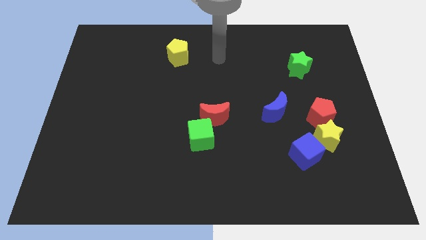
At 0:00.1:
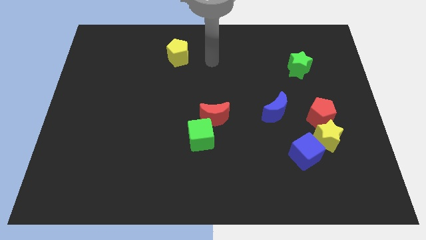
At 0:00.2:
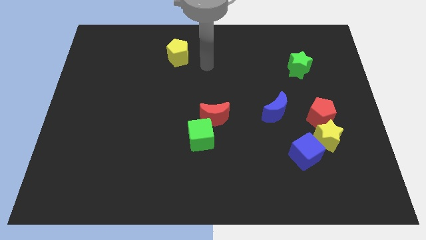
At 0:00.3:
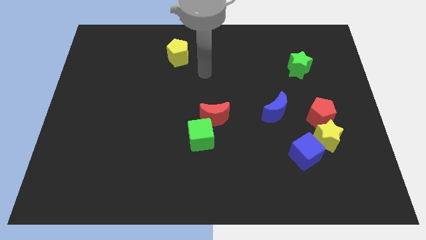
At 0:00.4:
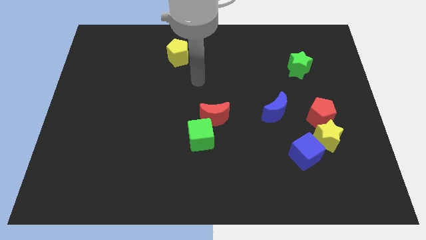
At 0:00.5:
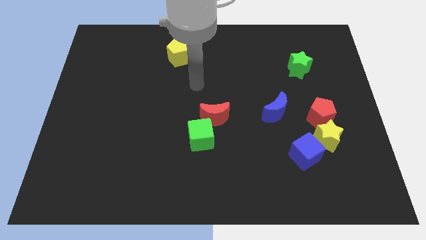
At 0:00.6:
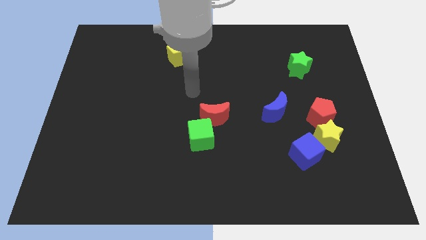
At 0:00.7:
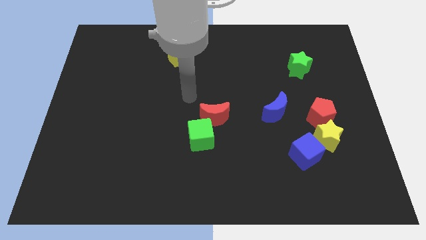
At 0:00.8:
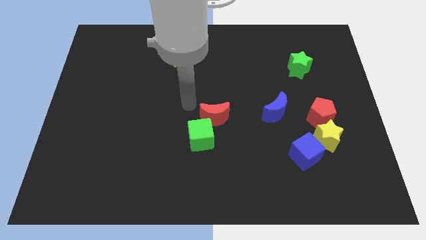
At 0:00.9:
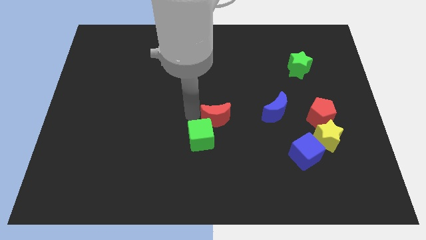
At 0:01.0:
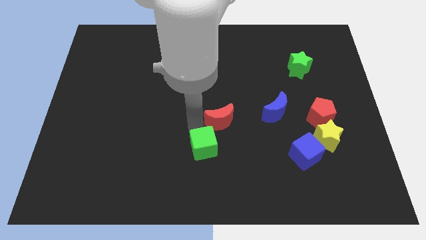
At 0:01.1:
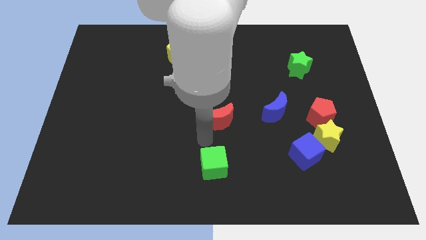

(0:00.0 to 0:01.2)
pull the red moon apart from the green cube

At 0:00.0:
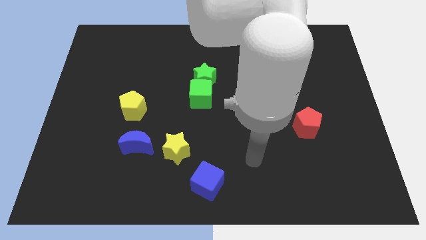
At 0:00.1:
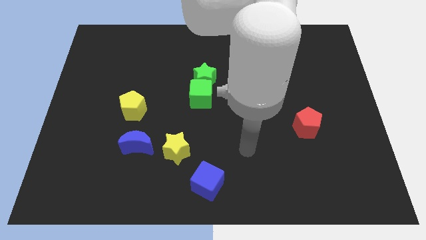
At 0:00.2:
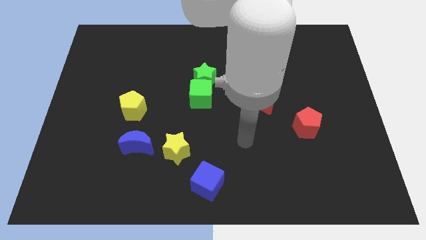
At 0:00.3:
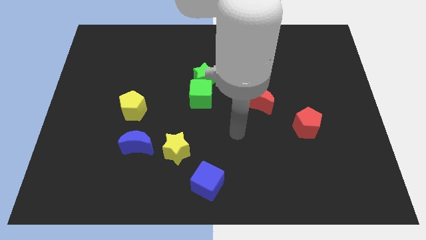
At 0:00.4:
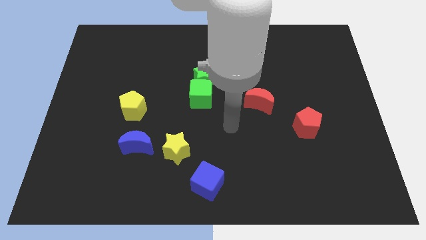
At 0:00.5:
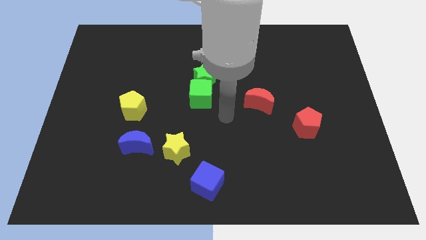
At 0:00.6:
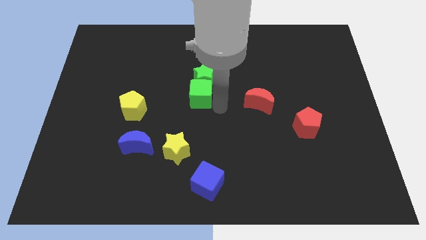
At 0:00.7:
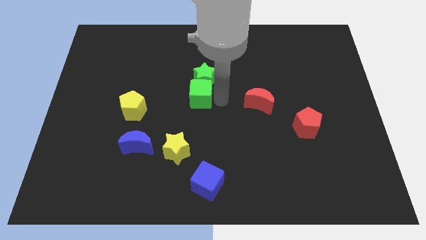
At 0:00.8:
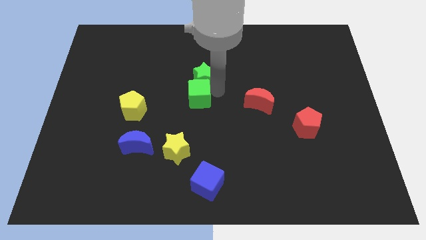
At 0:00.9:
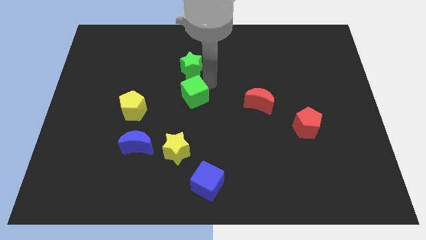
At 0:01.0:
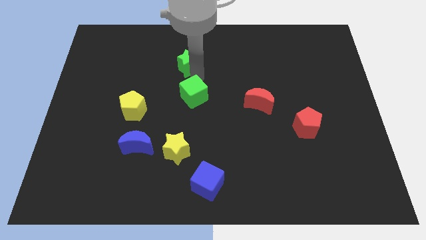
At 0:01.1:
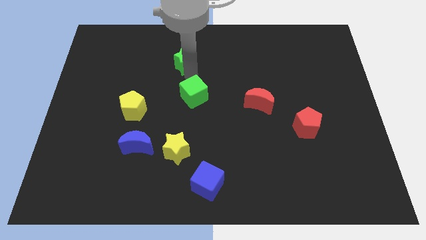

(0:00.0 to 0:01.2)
separate the green cube from the green star

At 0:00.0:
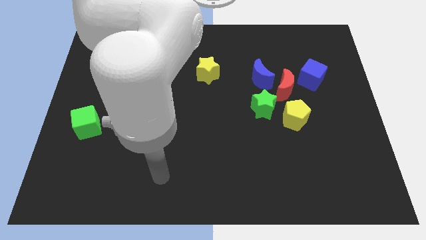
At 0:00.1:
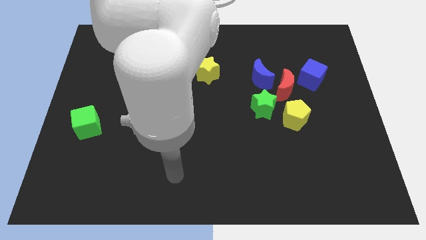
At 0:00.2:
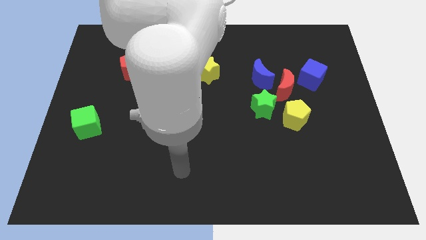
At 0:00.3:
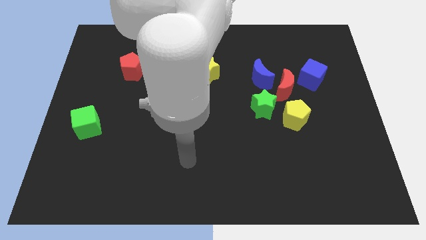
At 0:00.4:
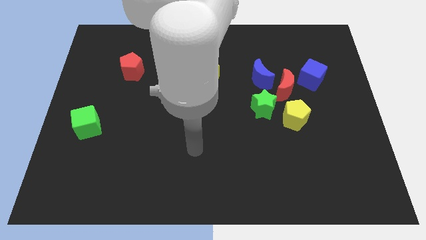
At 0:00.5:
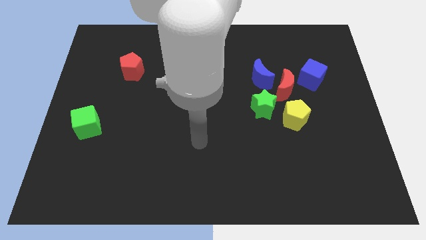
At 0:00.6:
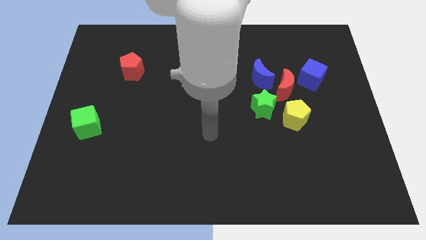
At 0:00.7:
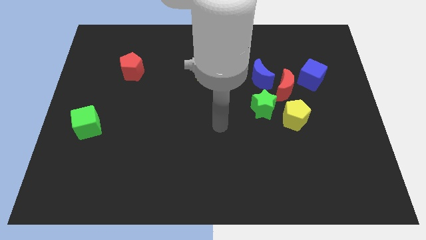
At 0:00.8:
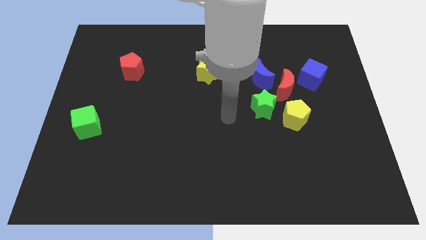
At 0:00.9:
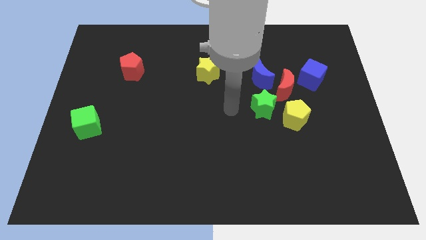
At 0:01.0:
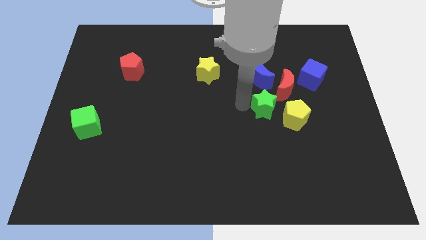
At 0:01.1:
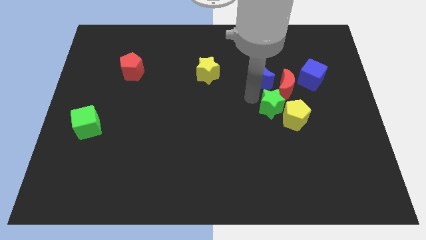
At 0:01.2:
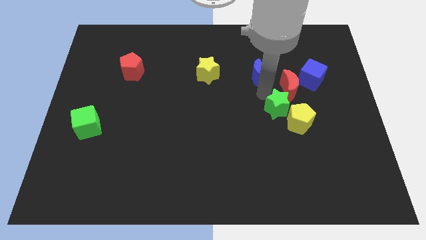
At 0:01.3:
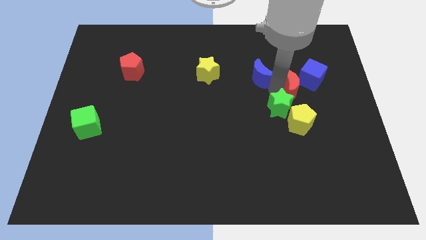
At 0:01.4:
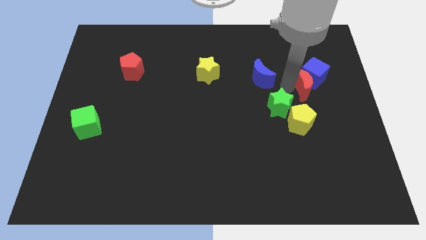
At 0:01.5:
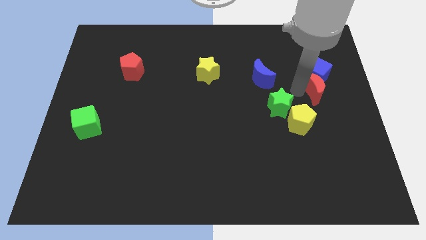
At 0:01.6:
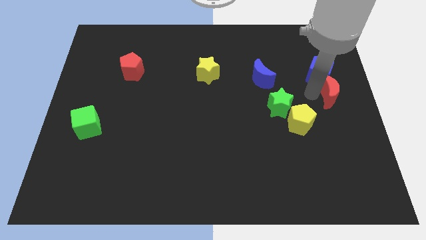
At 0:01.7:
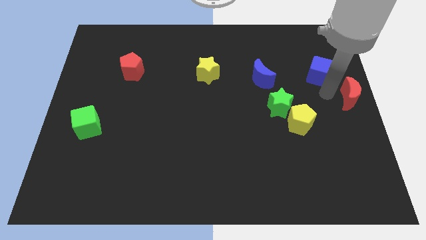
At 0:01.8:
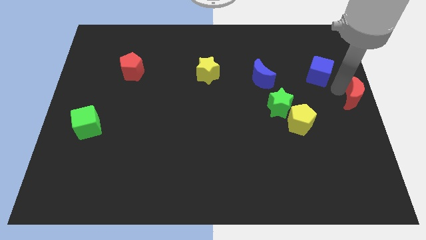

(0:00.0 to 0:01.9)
separate the blue cube from the red moon

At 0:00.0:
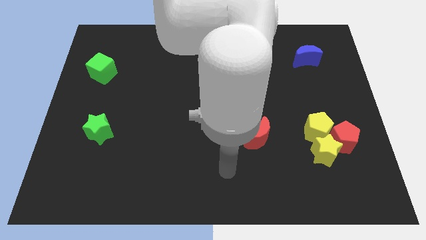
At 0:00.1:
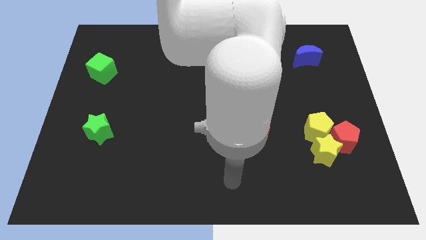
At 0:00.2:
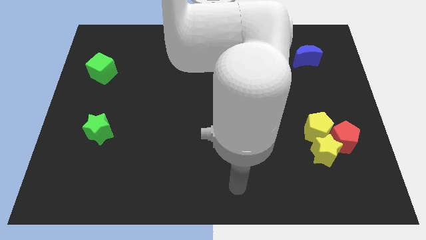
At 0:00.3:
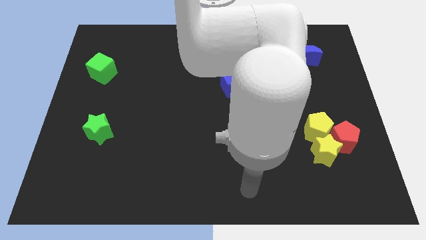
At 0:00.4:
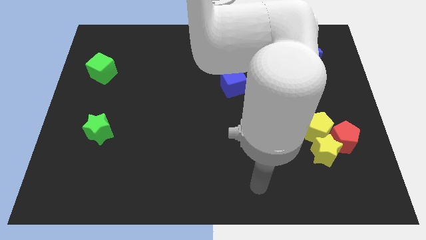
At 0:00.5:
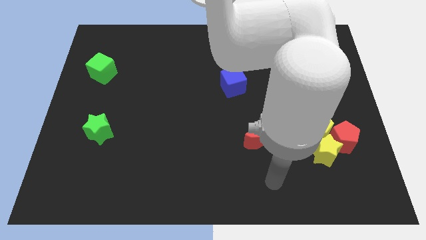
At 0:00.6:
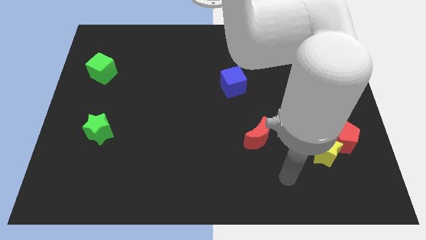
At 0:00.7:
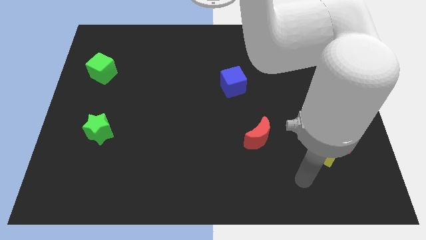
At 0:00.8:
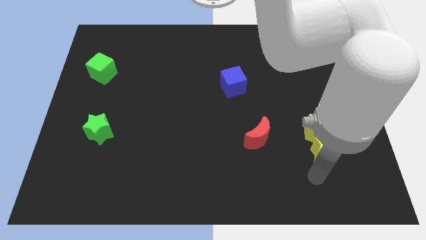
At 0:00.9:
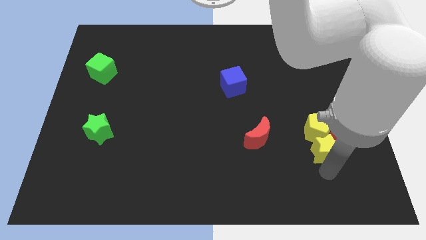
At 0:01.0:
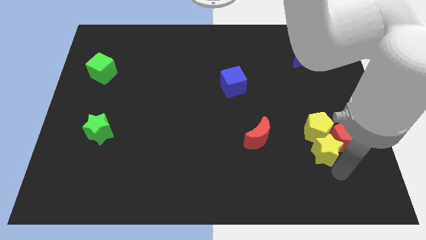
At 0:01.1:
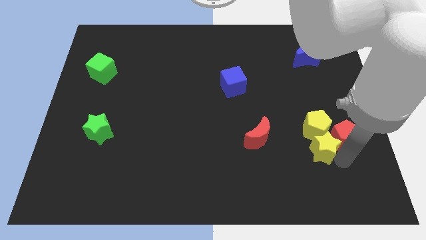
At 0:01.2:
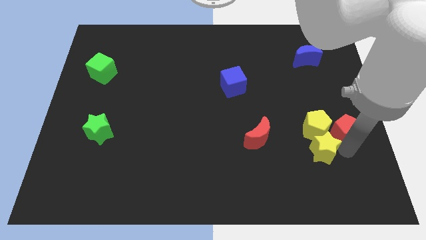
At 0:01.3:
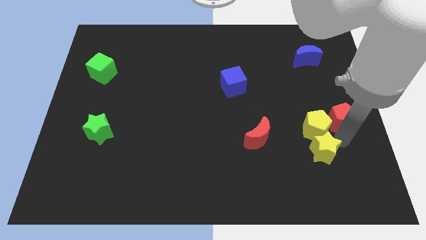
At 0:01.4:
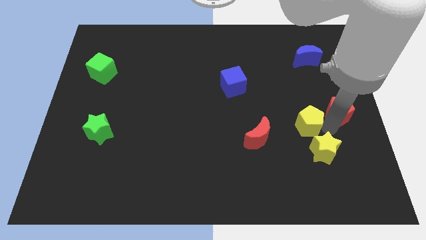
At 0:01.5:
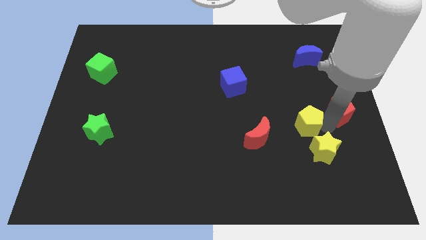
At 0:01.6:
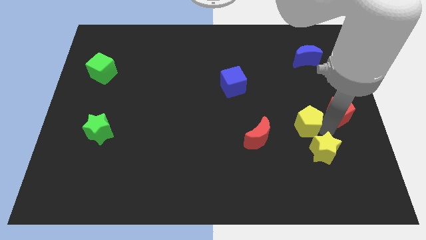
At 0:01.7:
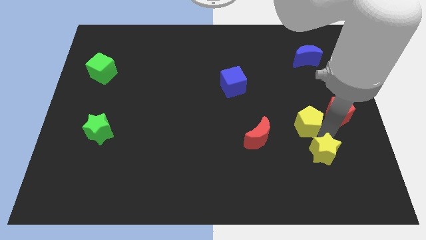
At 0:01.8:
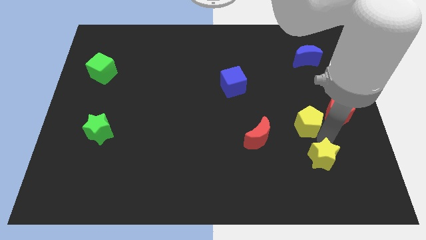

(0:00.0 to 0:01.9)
separate the yellow star from the red pentagon and yellow pentagon

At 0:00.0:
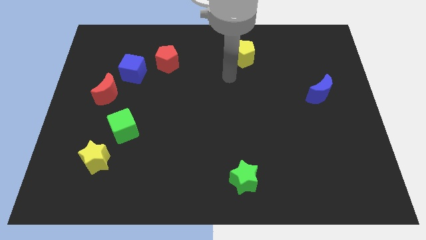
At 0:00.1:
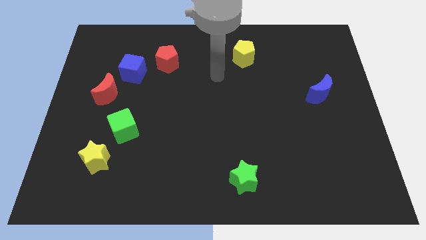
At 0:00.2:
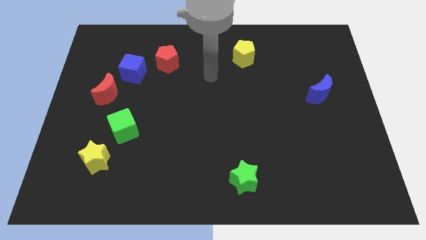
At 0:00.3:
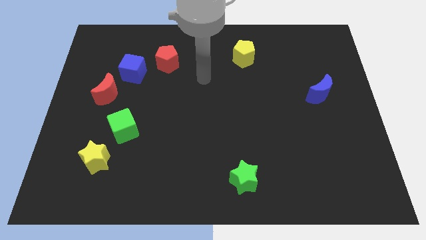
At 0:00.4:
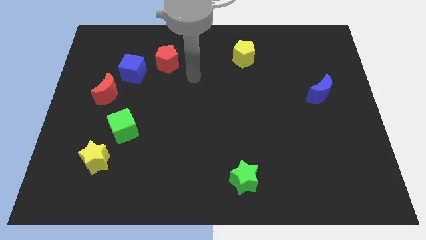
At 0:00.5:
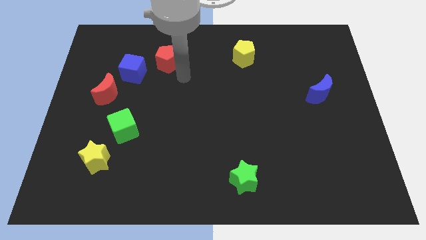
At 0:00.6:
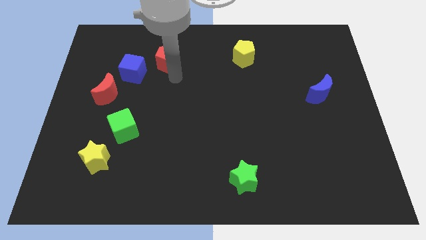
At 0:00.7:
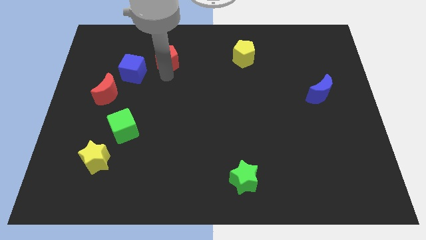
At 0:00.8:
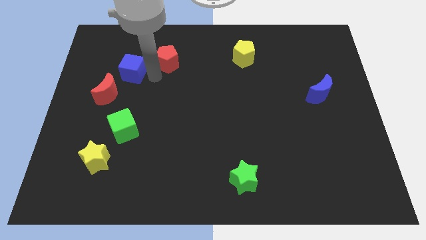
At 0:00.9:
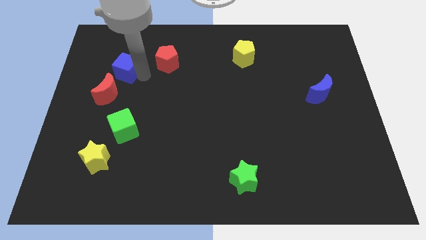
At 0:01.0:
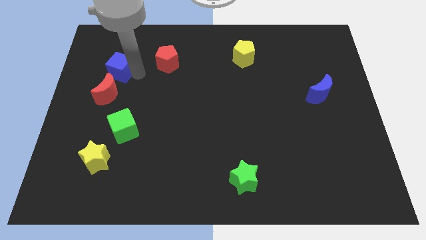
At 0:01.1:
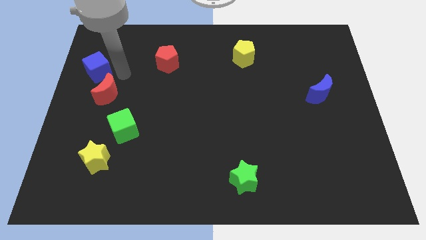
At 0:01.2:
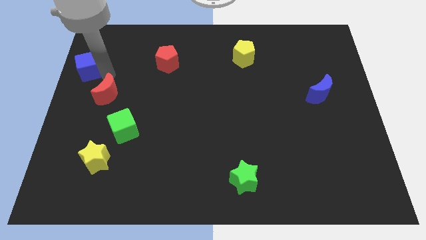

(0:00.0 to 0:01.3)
separate the red moon from the blue cube

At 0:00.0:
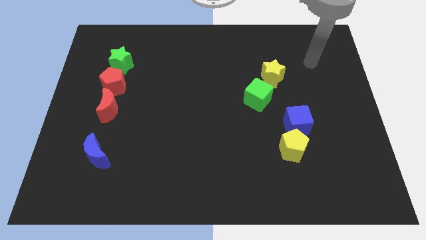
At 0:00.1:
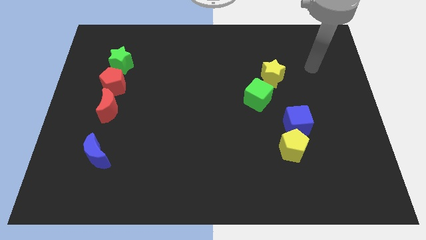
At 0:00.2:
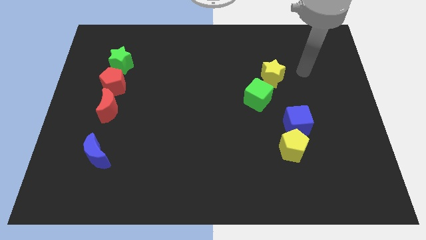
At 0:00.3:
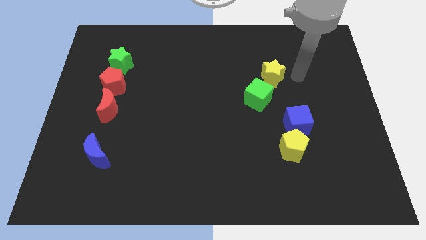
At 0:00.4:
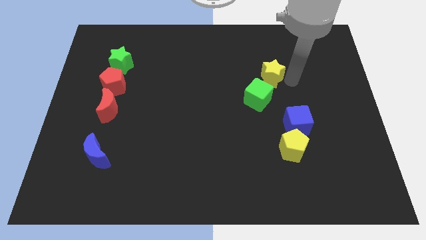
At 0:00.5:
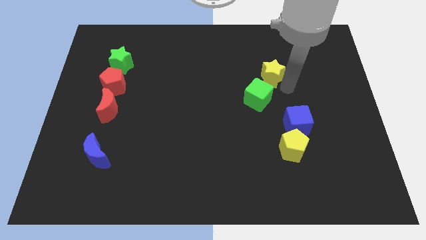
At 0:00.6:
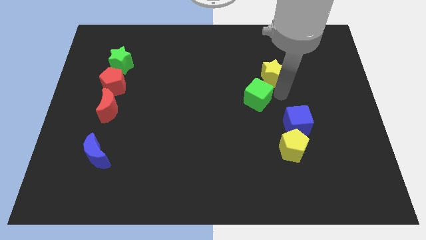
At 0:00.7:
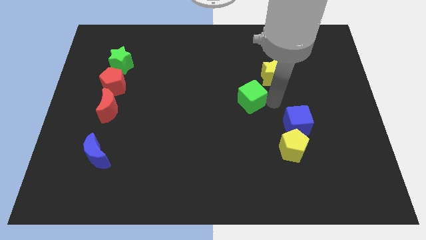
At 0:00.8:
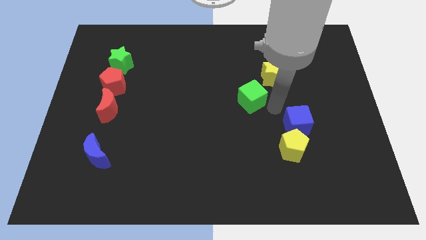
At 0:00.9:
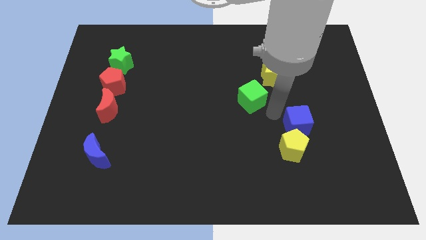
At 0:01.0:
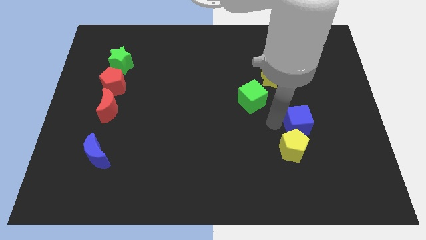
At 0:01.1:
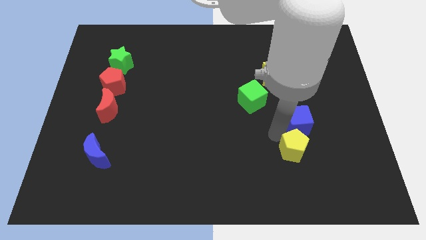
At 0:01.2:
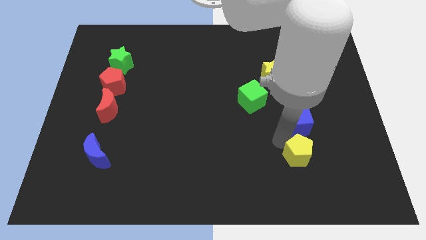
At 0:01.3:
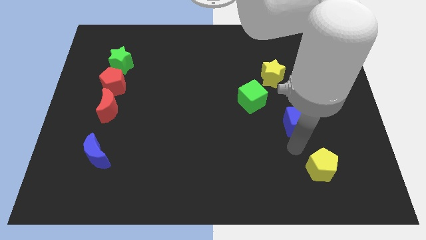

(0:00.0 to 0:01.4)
move the blue cube away from the yellow pentagon

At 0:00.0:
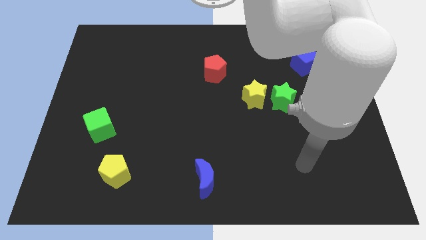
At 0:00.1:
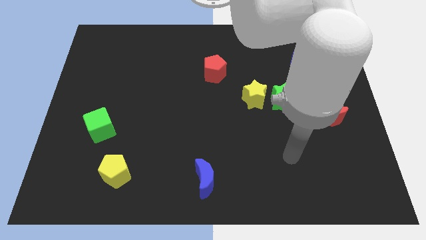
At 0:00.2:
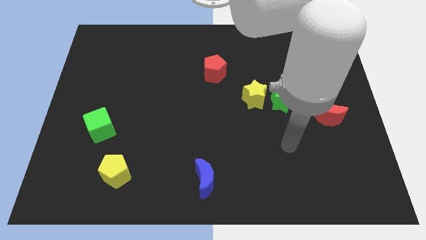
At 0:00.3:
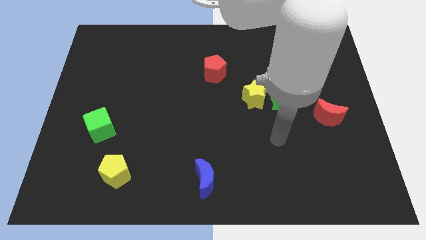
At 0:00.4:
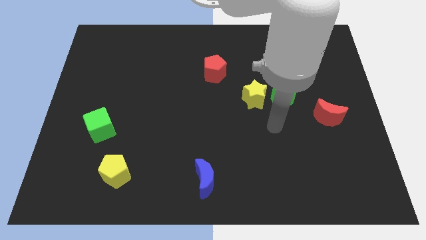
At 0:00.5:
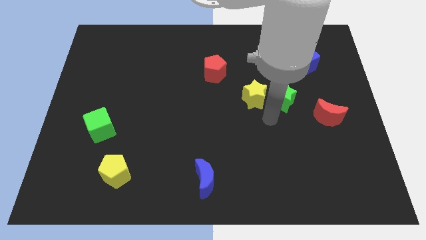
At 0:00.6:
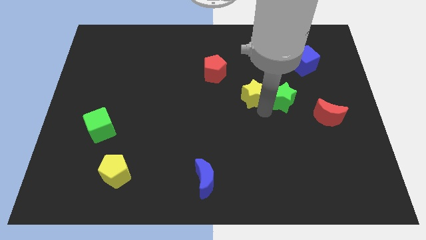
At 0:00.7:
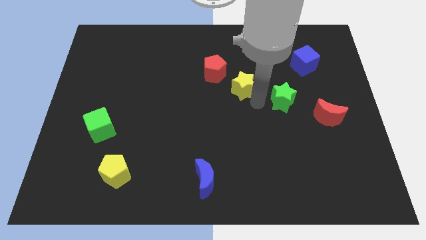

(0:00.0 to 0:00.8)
pull the green star apart from the yellow star
